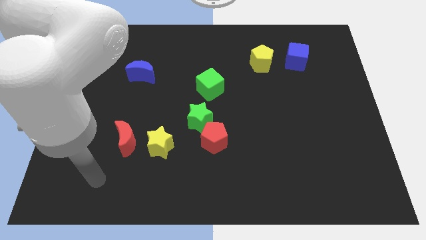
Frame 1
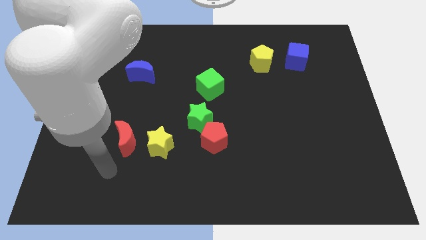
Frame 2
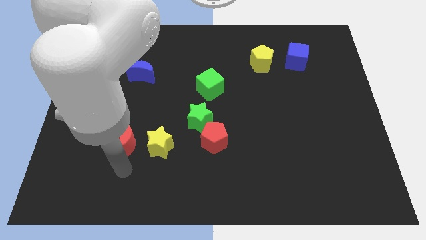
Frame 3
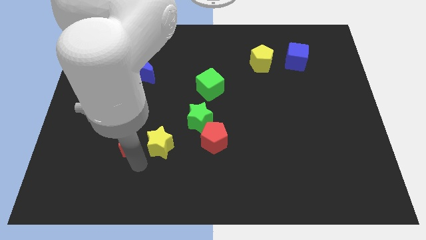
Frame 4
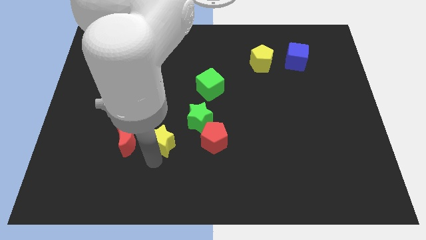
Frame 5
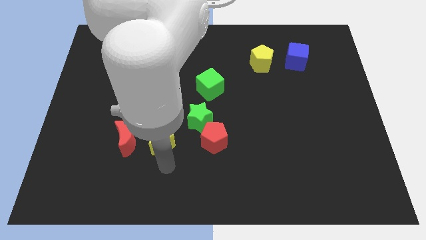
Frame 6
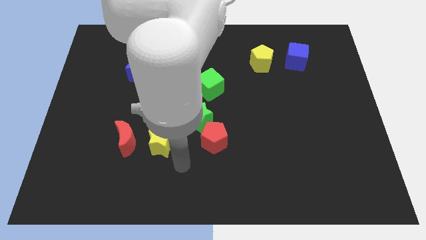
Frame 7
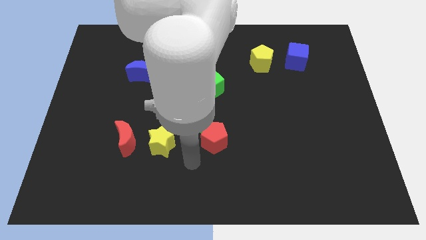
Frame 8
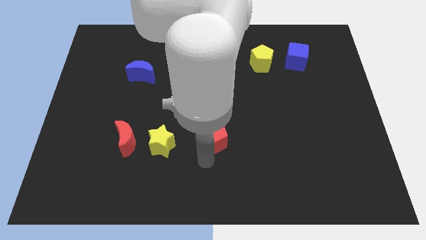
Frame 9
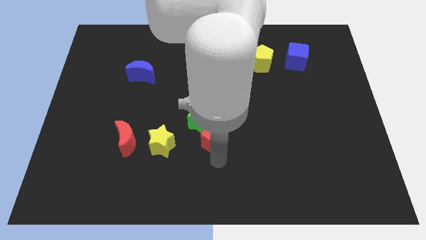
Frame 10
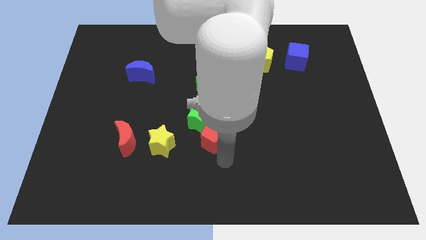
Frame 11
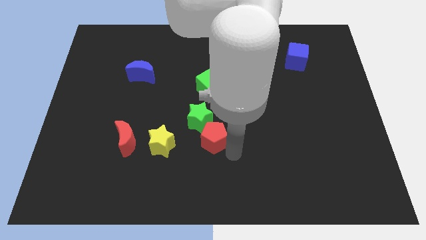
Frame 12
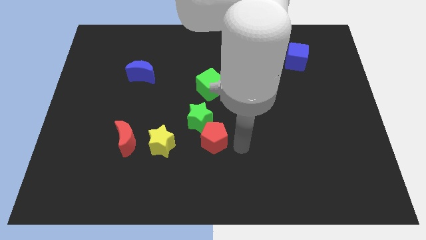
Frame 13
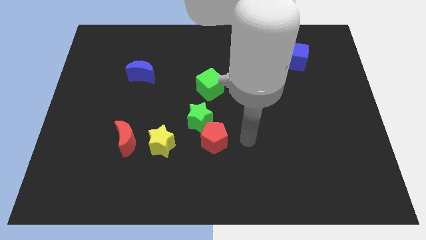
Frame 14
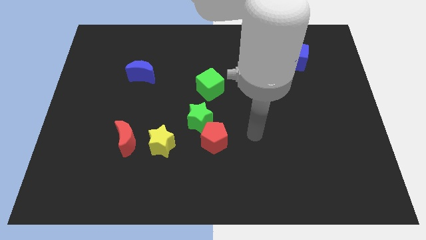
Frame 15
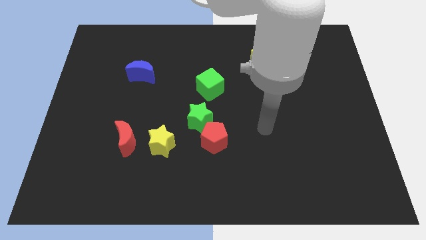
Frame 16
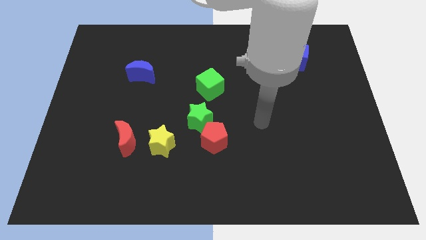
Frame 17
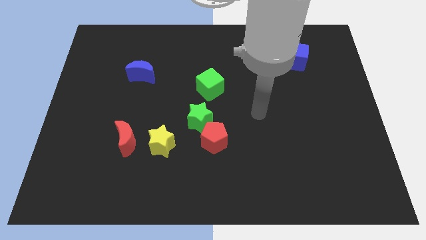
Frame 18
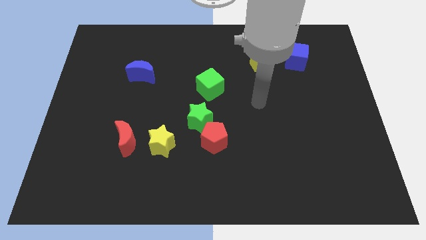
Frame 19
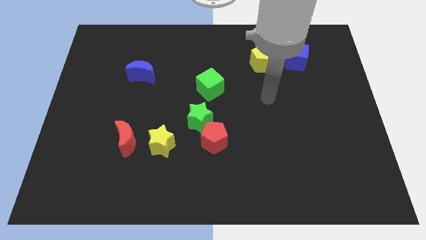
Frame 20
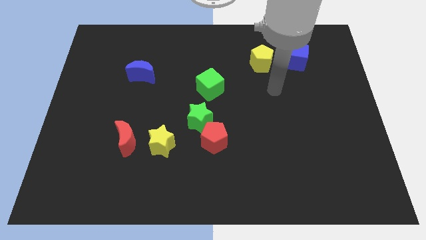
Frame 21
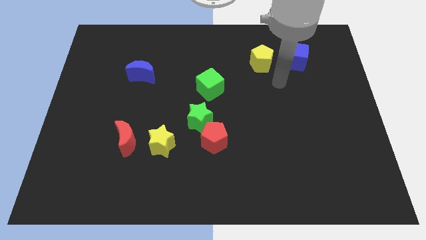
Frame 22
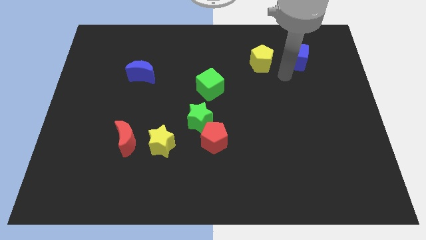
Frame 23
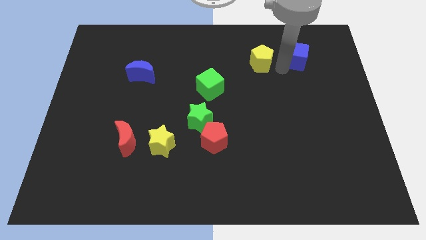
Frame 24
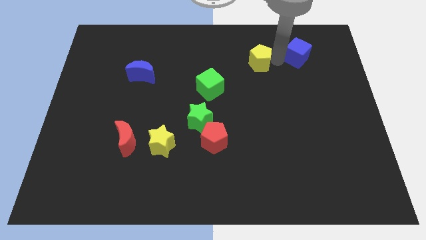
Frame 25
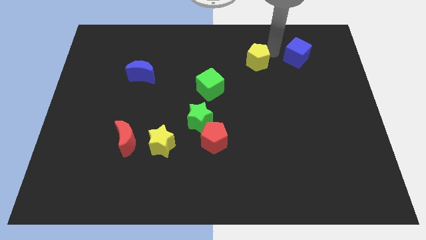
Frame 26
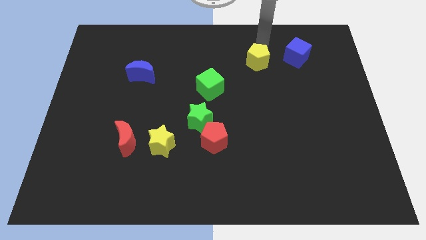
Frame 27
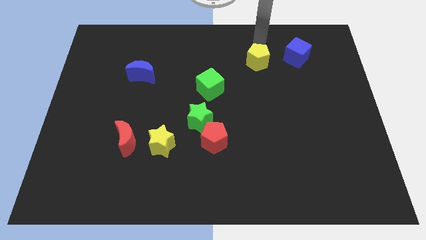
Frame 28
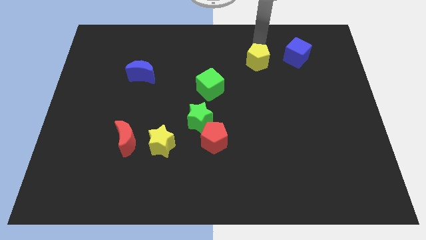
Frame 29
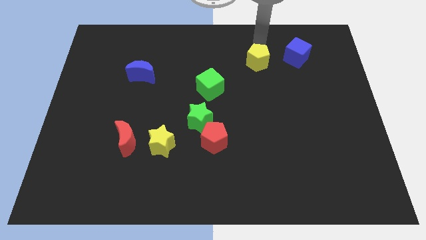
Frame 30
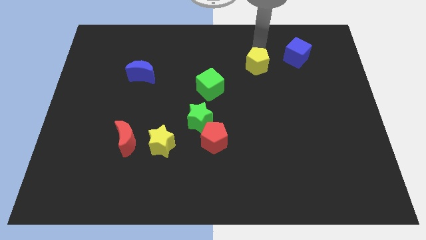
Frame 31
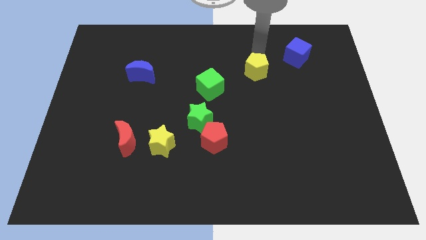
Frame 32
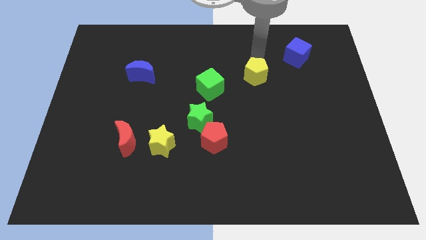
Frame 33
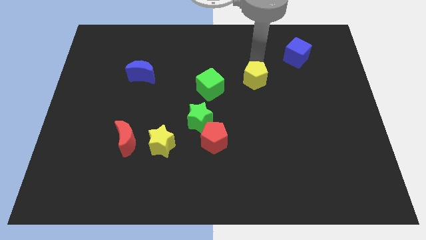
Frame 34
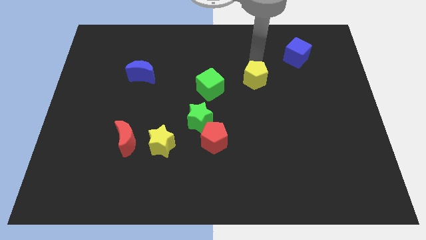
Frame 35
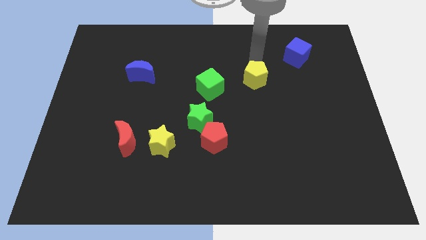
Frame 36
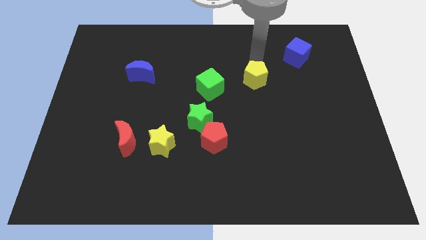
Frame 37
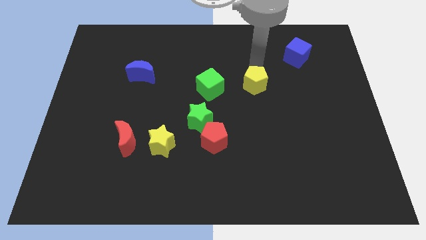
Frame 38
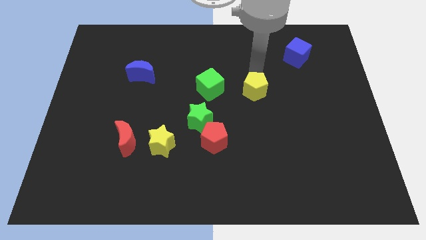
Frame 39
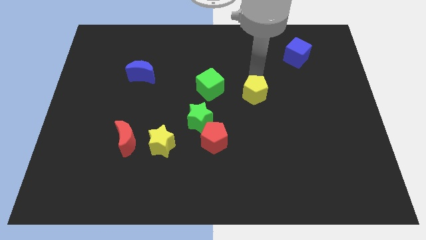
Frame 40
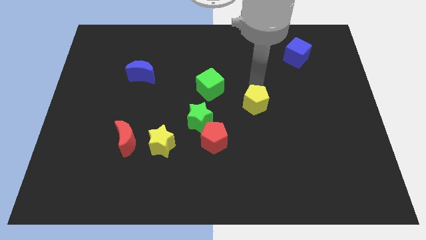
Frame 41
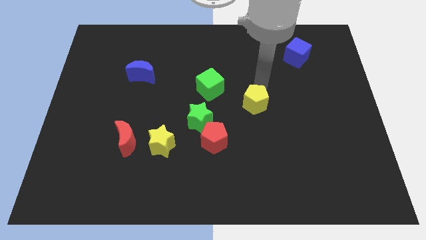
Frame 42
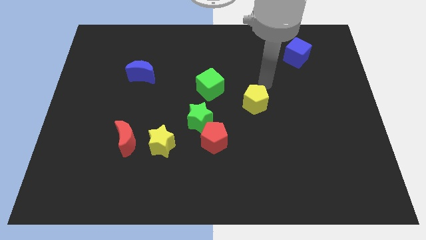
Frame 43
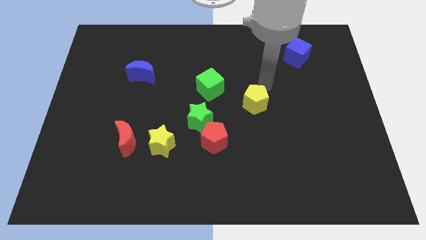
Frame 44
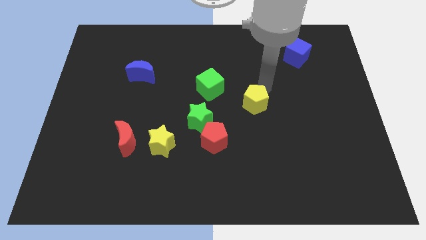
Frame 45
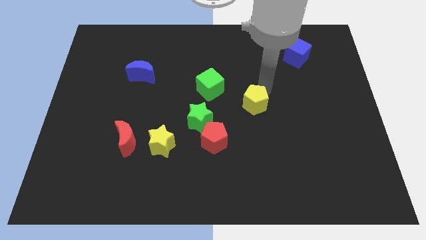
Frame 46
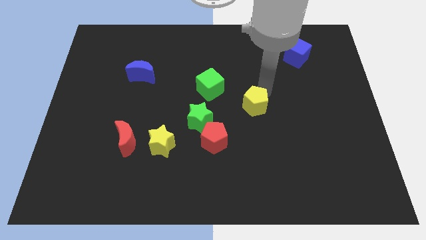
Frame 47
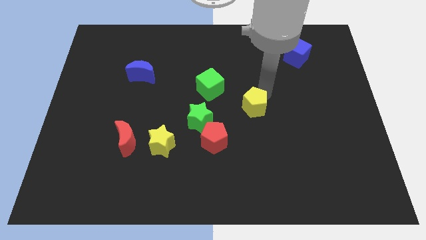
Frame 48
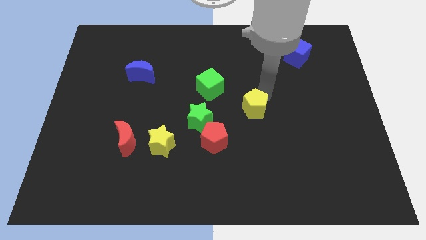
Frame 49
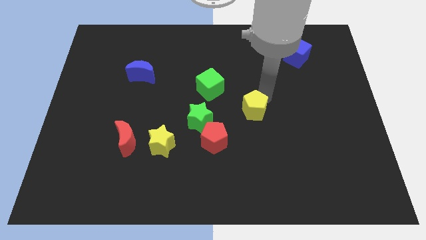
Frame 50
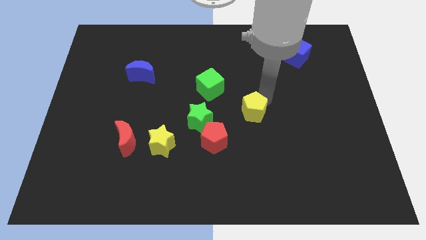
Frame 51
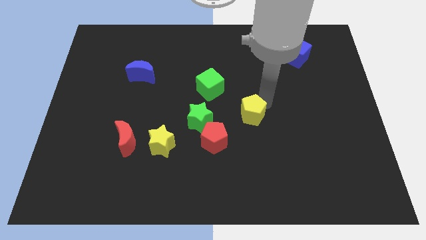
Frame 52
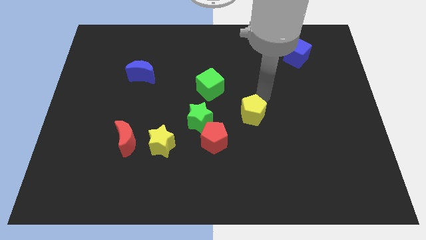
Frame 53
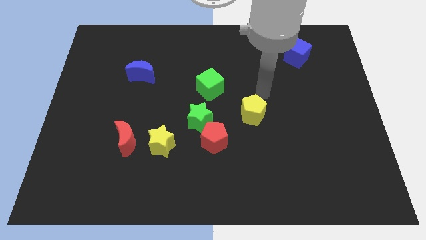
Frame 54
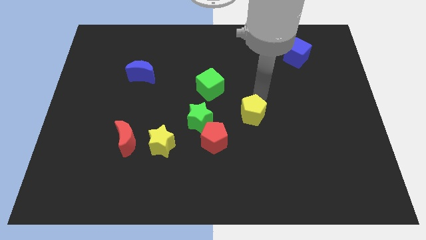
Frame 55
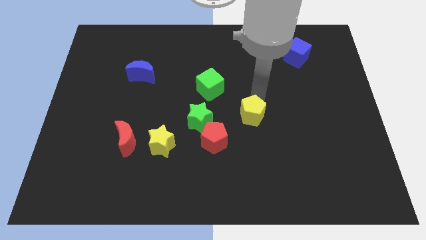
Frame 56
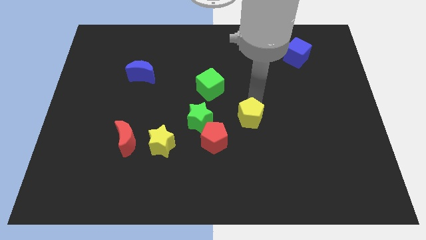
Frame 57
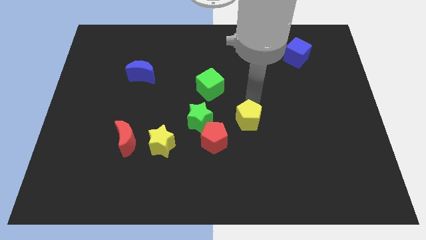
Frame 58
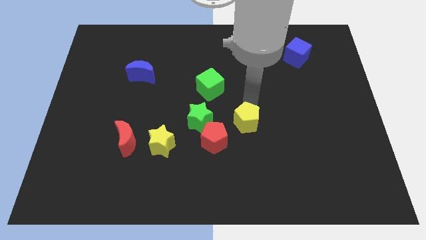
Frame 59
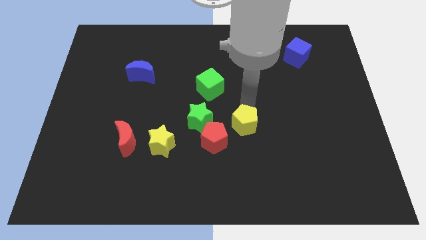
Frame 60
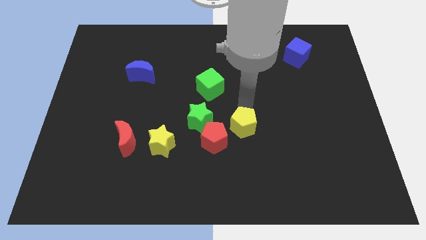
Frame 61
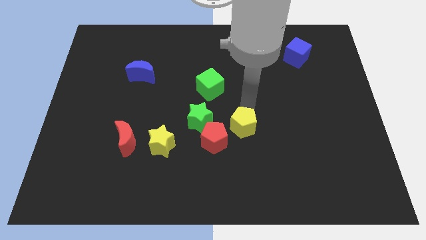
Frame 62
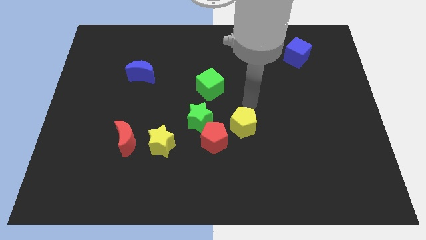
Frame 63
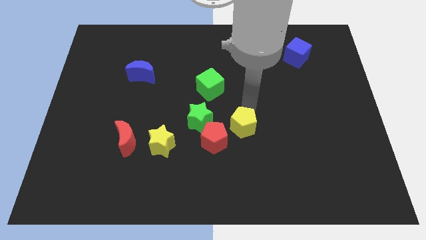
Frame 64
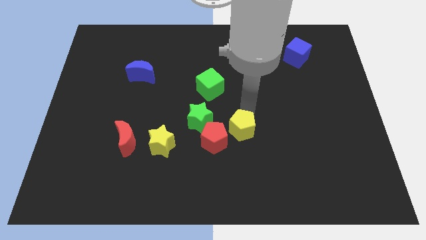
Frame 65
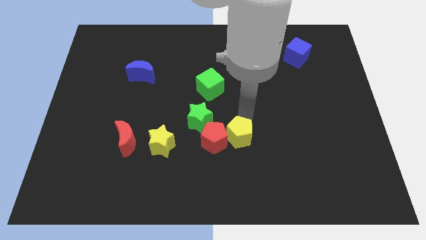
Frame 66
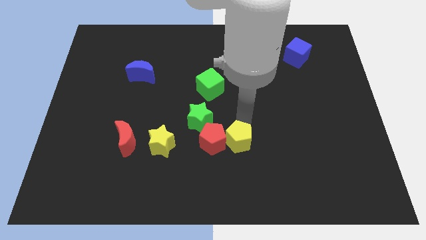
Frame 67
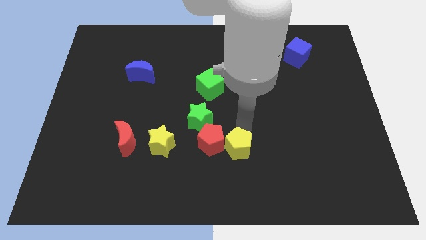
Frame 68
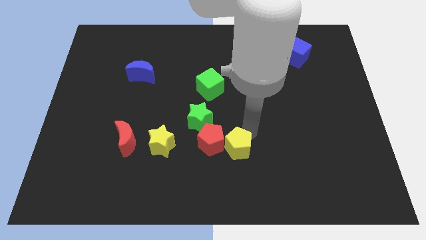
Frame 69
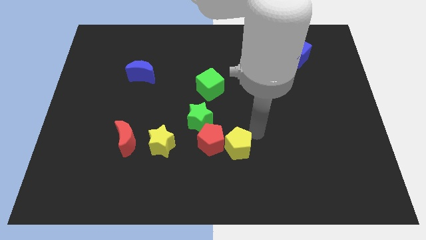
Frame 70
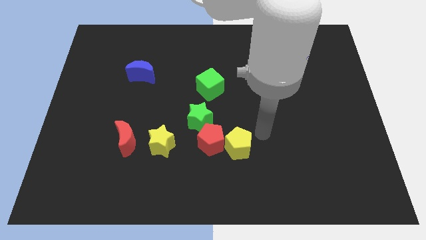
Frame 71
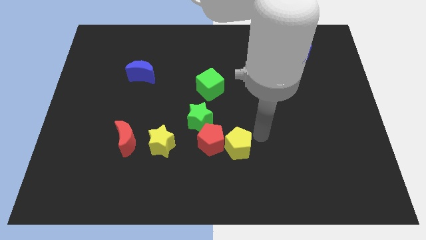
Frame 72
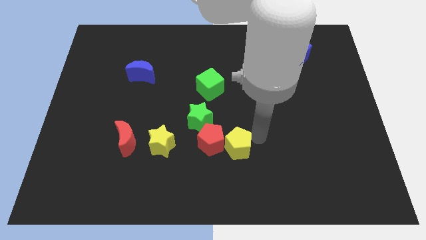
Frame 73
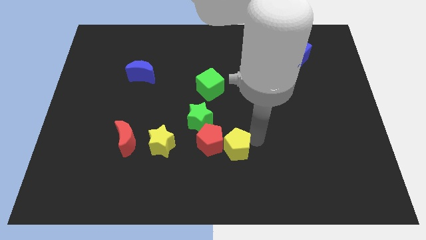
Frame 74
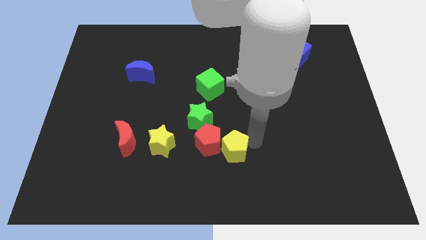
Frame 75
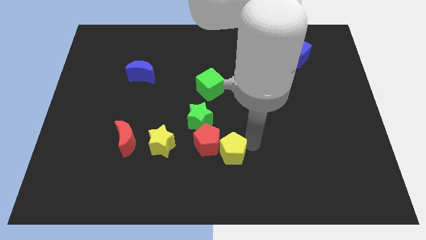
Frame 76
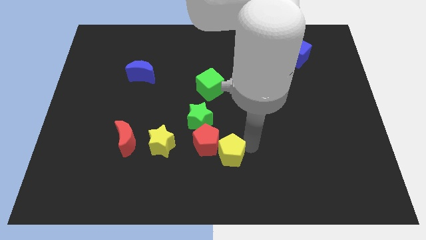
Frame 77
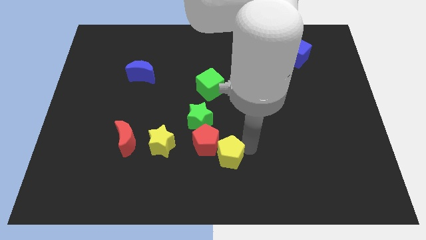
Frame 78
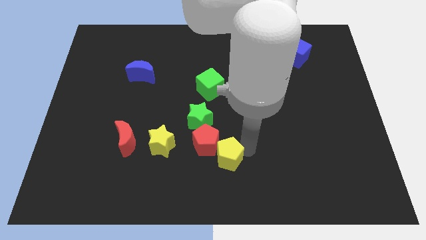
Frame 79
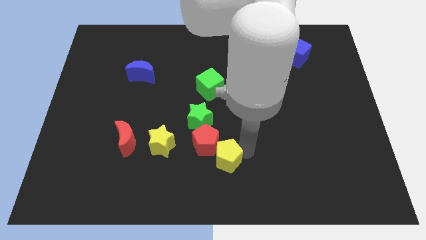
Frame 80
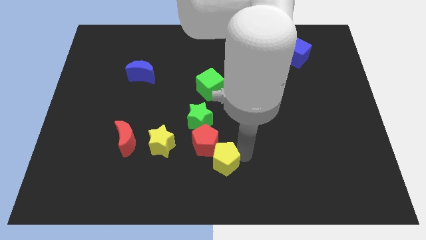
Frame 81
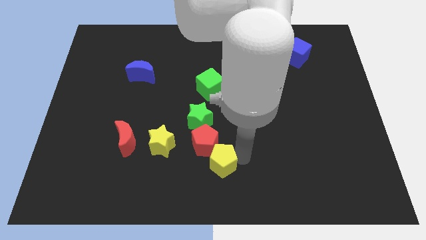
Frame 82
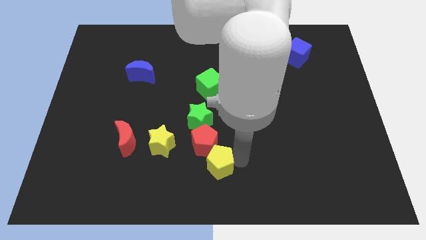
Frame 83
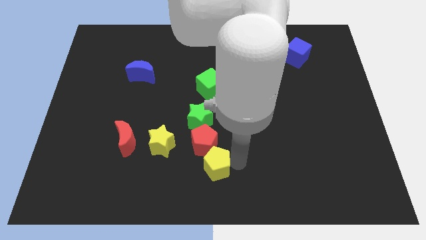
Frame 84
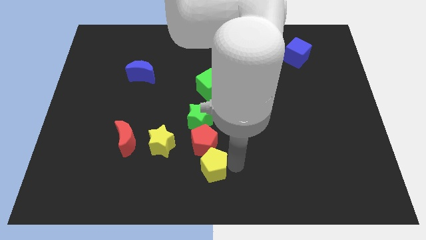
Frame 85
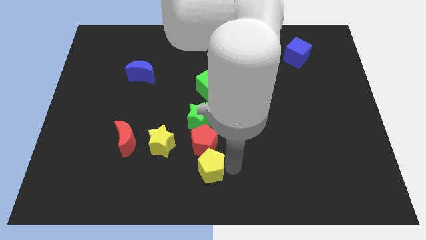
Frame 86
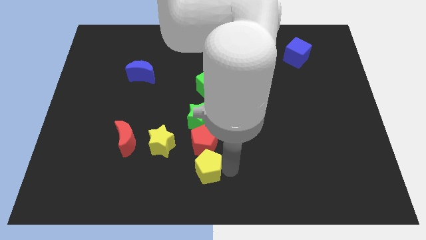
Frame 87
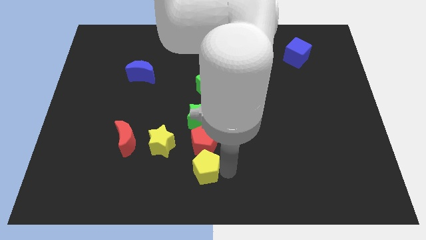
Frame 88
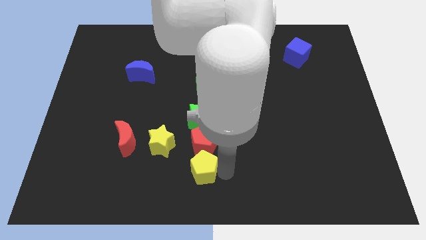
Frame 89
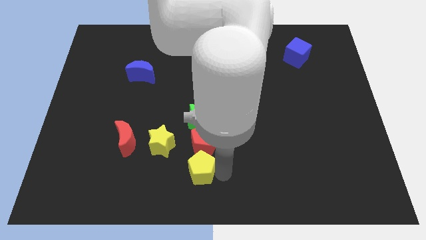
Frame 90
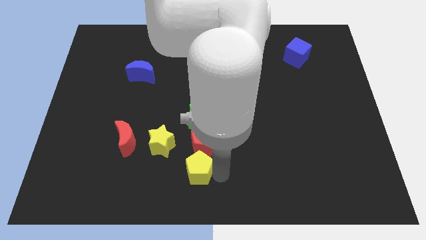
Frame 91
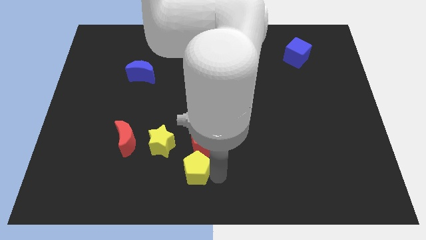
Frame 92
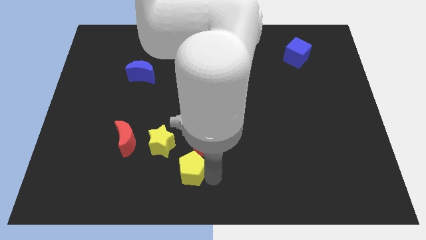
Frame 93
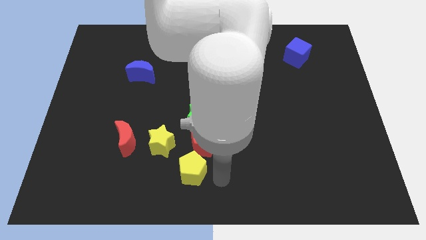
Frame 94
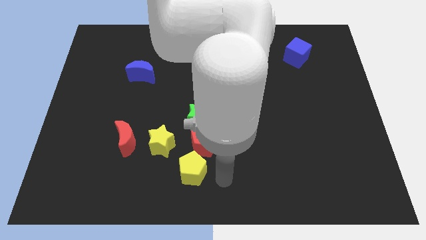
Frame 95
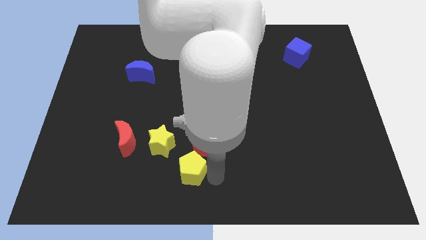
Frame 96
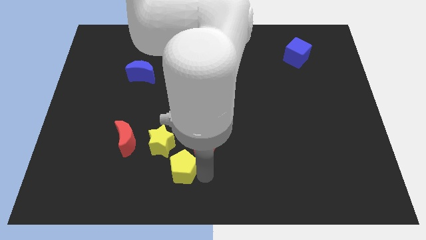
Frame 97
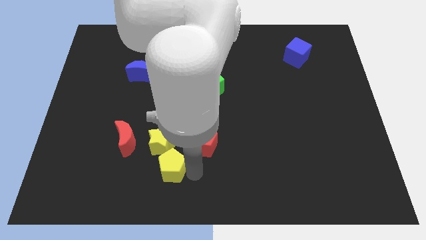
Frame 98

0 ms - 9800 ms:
put the yellow pentagon to the bottom right of the red moon
